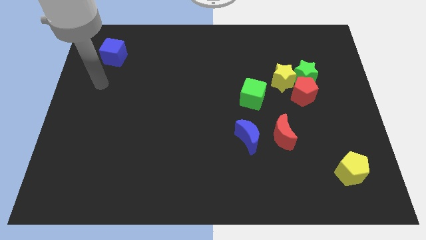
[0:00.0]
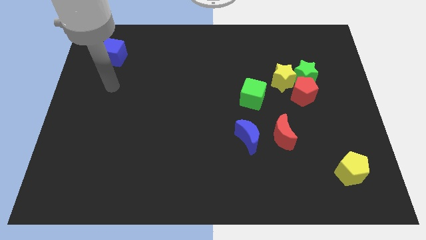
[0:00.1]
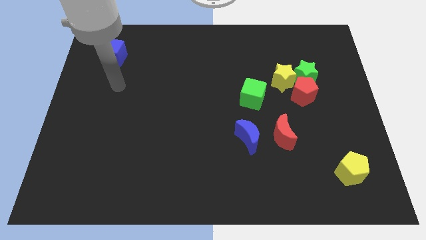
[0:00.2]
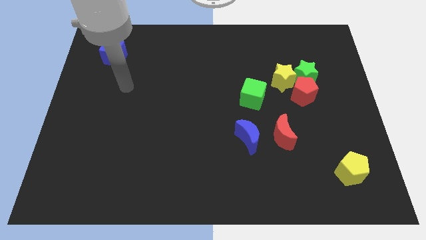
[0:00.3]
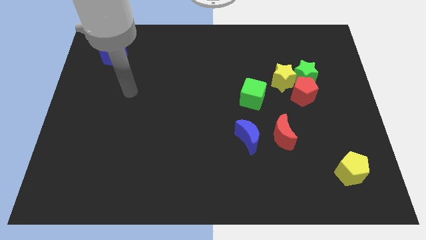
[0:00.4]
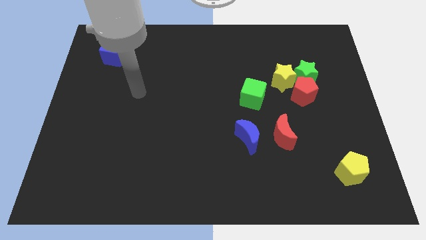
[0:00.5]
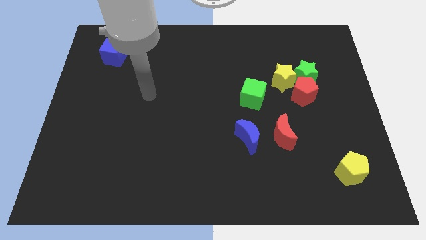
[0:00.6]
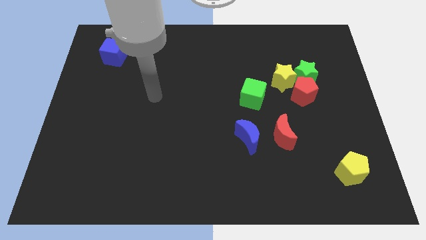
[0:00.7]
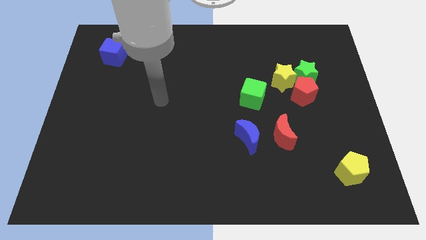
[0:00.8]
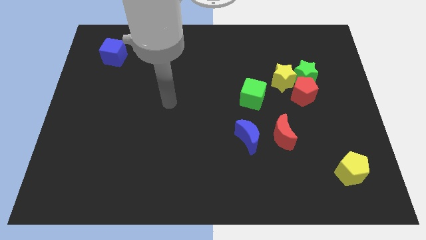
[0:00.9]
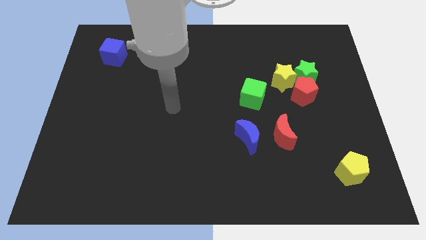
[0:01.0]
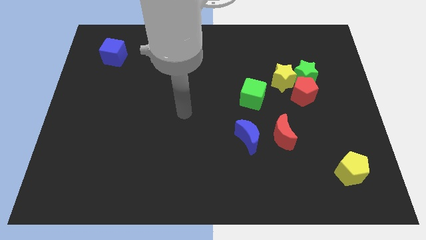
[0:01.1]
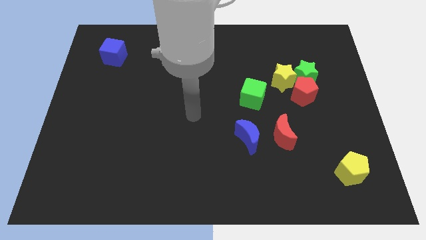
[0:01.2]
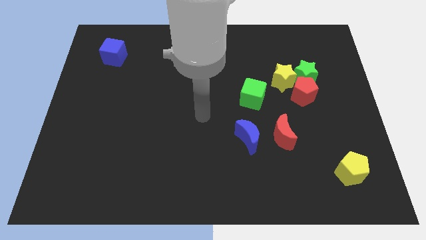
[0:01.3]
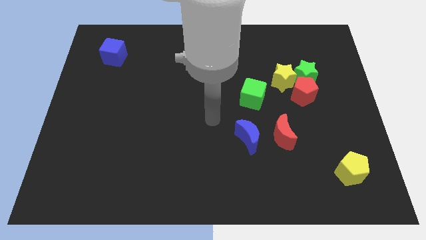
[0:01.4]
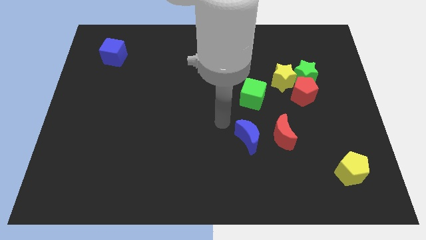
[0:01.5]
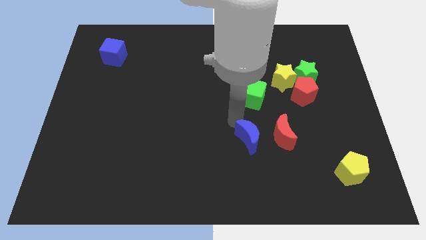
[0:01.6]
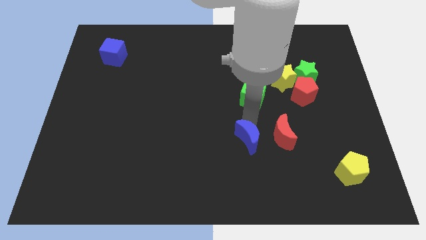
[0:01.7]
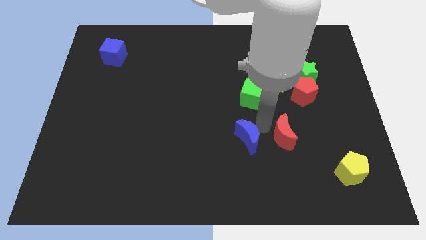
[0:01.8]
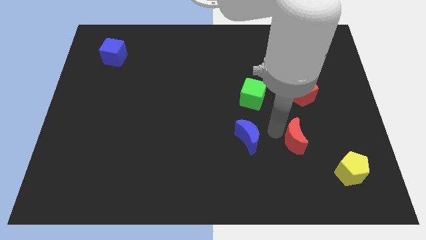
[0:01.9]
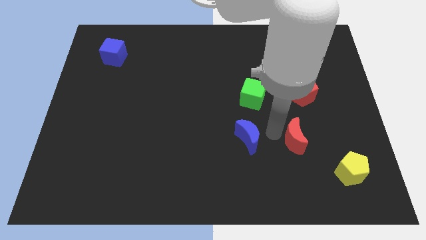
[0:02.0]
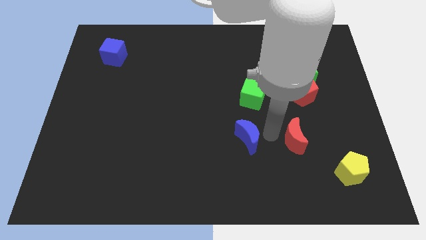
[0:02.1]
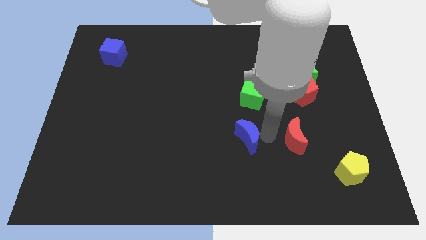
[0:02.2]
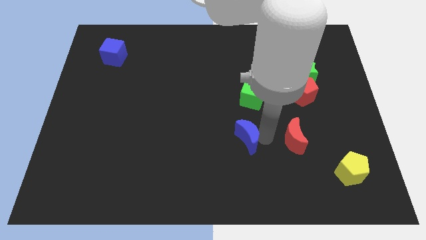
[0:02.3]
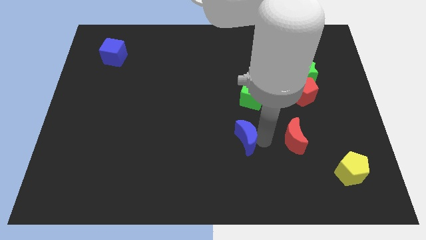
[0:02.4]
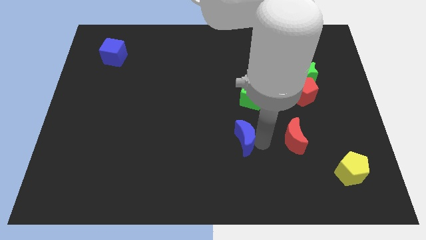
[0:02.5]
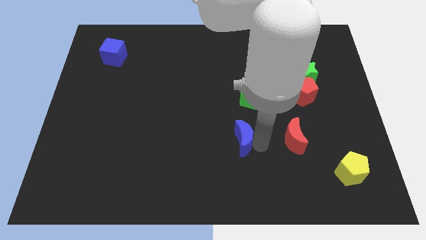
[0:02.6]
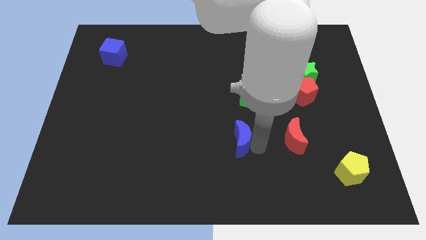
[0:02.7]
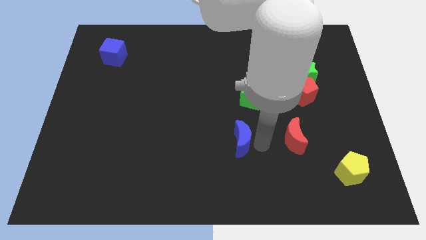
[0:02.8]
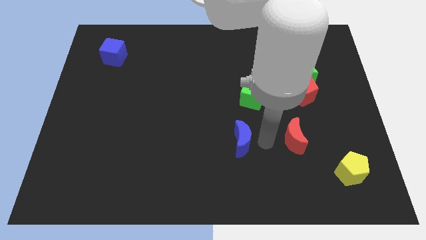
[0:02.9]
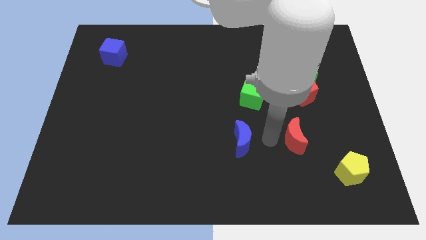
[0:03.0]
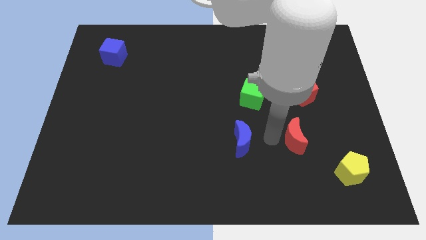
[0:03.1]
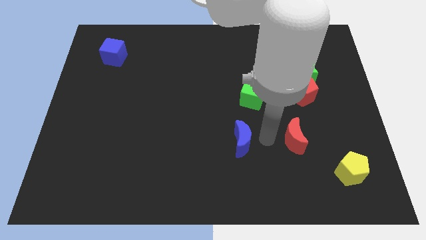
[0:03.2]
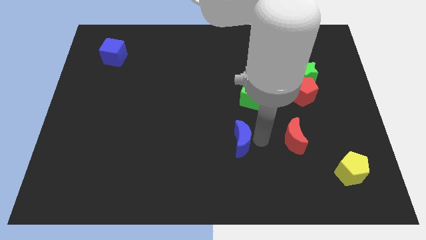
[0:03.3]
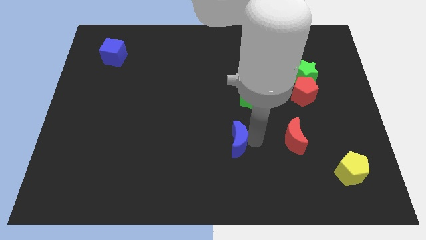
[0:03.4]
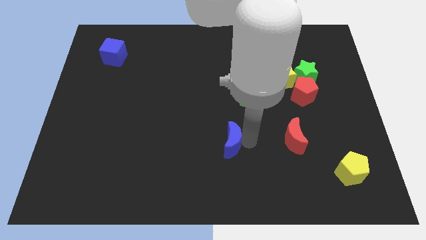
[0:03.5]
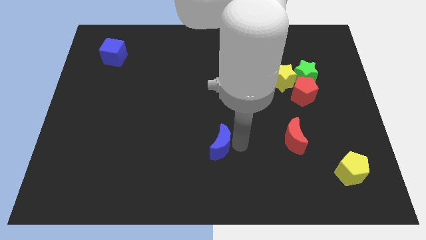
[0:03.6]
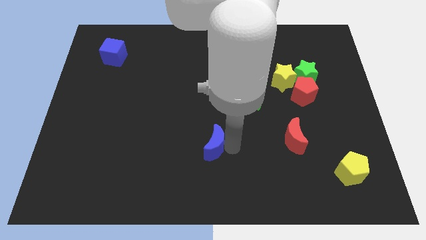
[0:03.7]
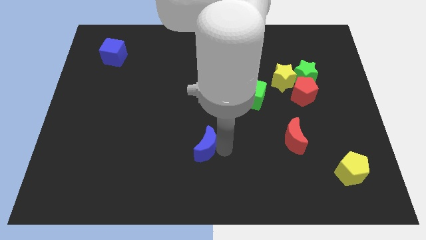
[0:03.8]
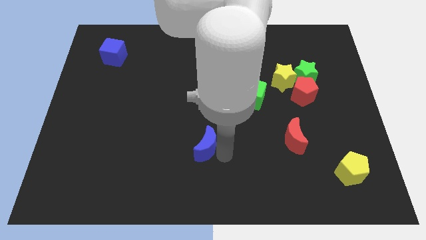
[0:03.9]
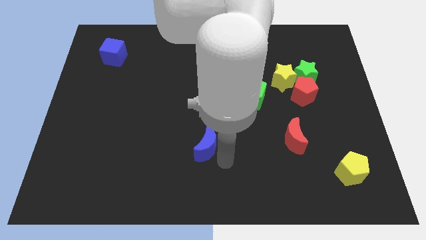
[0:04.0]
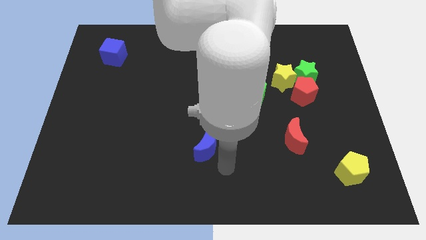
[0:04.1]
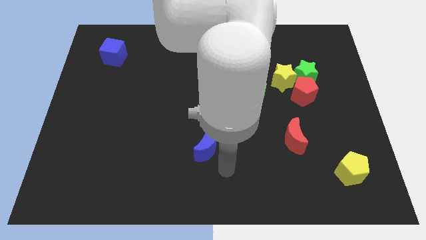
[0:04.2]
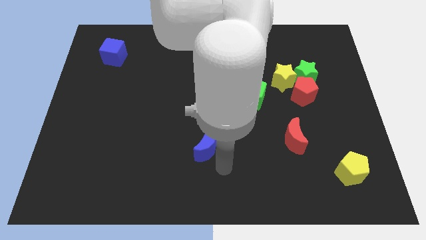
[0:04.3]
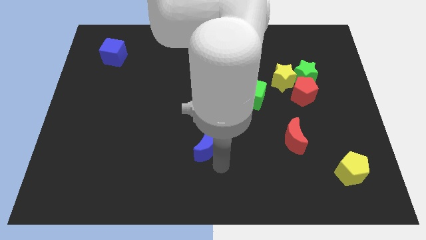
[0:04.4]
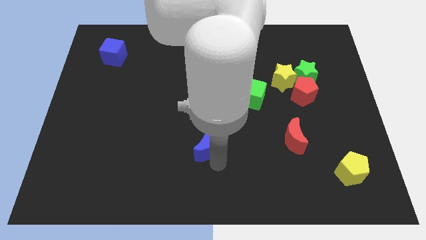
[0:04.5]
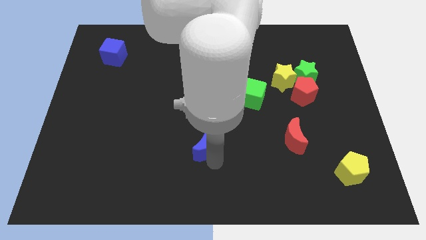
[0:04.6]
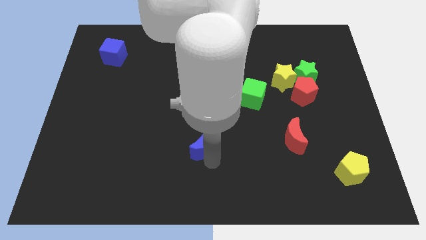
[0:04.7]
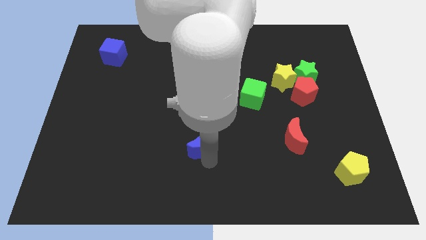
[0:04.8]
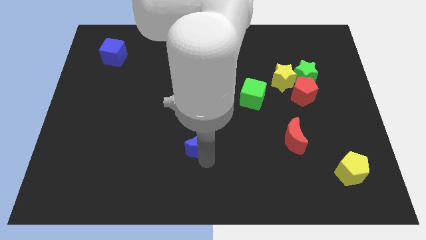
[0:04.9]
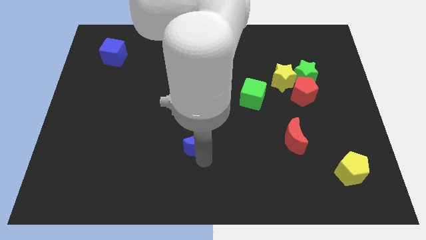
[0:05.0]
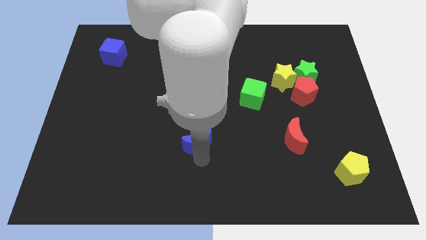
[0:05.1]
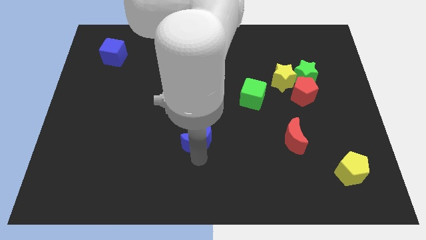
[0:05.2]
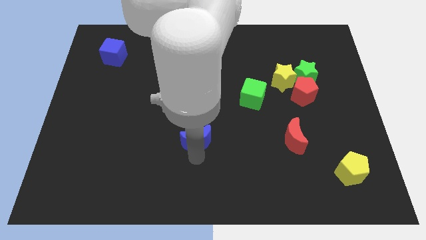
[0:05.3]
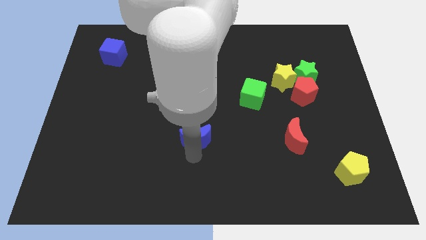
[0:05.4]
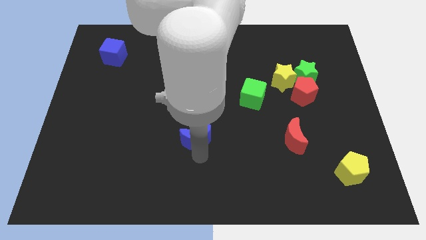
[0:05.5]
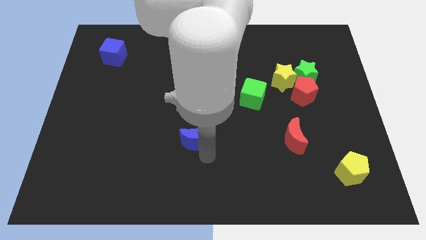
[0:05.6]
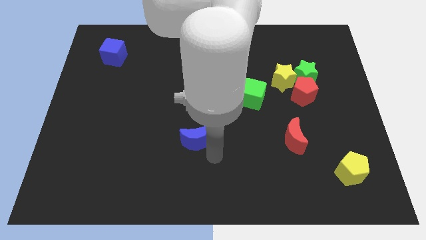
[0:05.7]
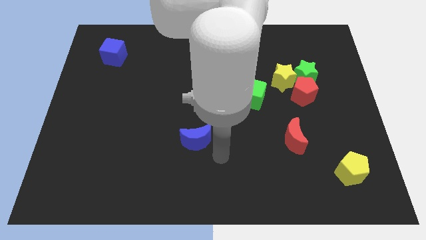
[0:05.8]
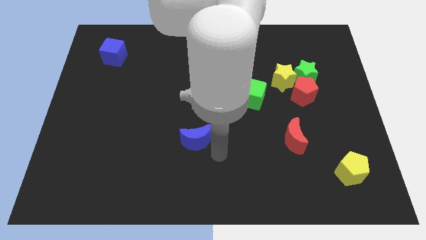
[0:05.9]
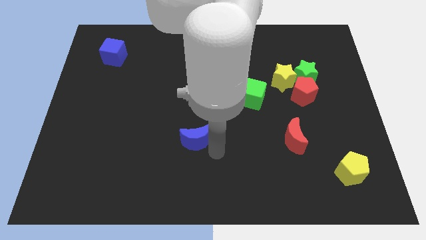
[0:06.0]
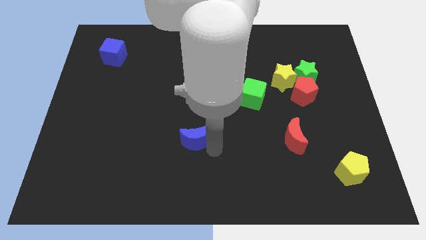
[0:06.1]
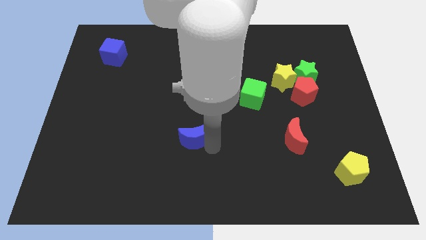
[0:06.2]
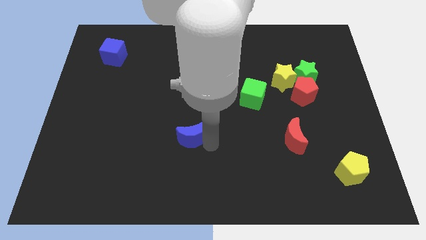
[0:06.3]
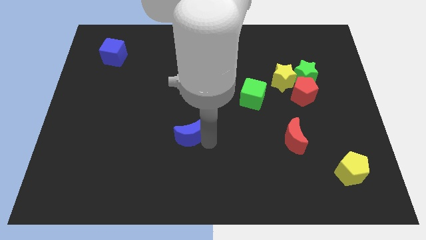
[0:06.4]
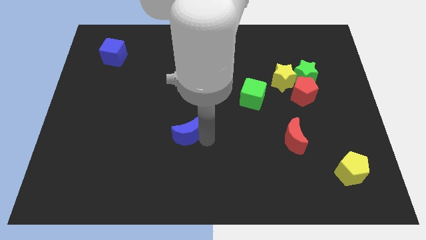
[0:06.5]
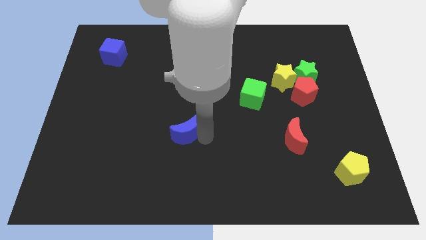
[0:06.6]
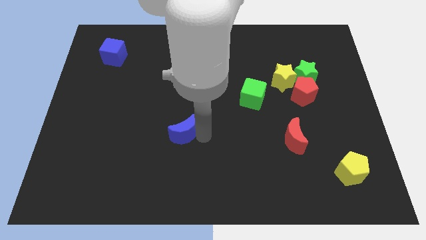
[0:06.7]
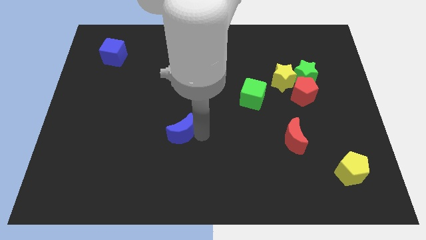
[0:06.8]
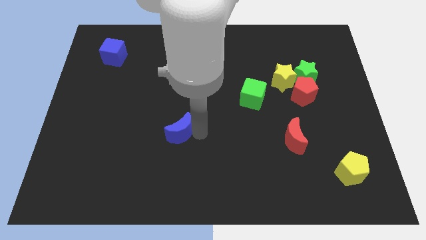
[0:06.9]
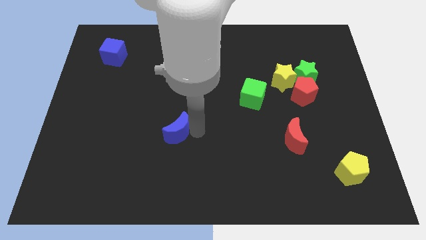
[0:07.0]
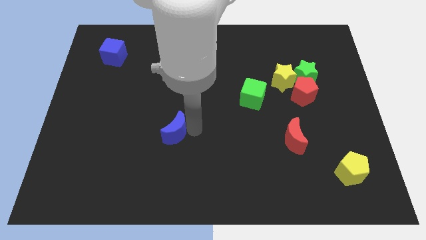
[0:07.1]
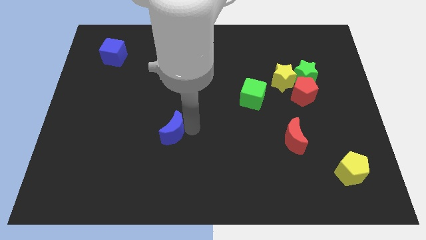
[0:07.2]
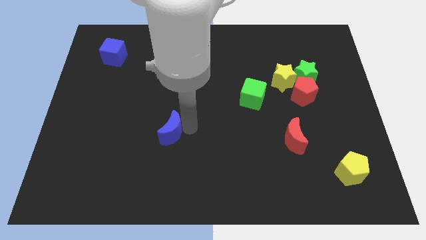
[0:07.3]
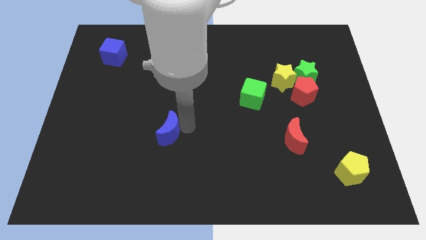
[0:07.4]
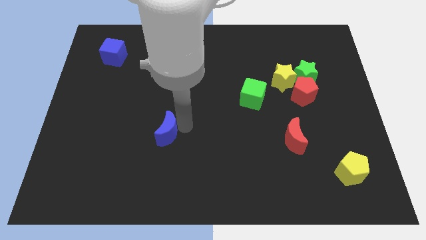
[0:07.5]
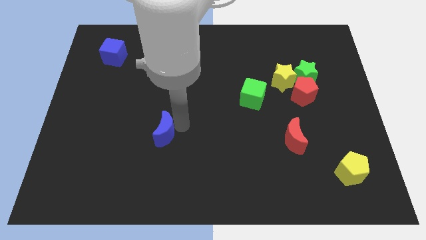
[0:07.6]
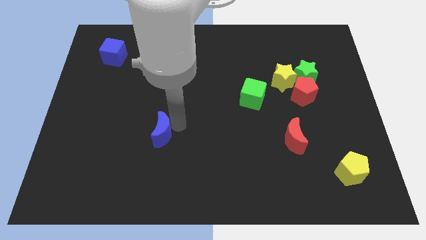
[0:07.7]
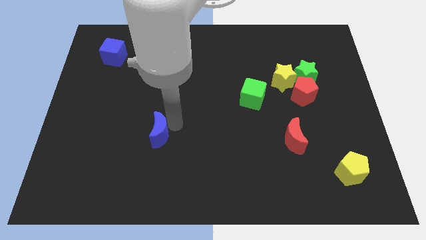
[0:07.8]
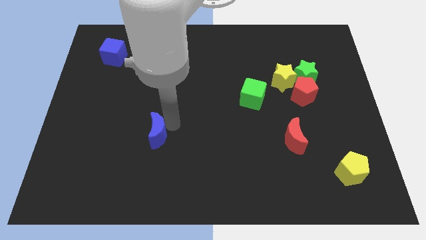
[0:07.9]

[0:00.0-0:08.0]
move the blue moon to the left
